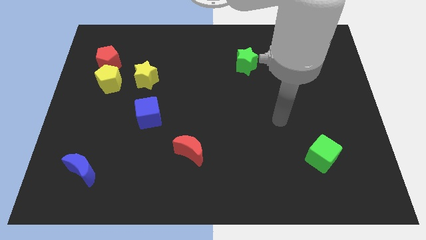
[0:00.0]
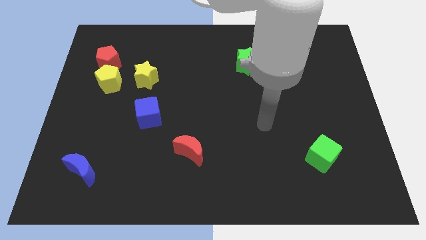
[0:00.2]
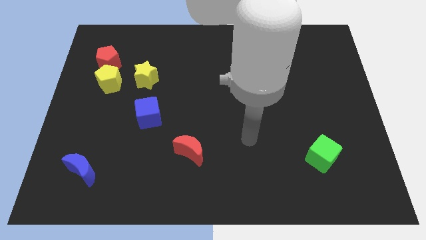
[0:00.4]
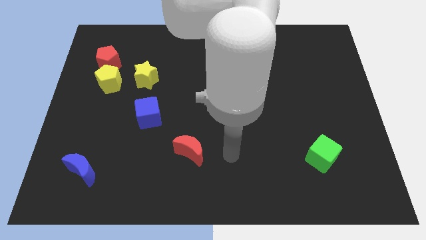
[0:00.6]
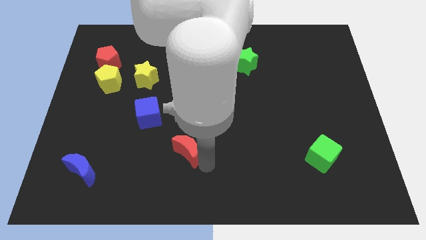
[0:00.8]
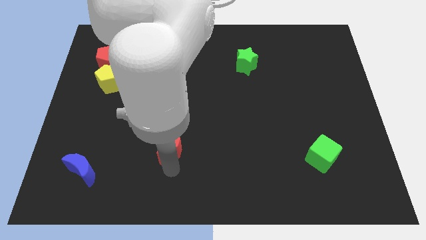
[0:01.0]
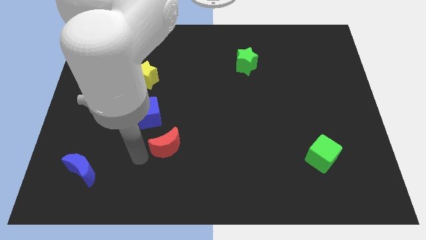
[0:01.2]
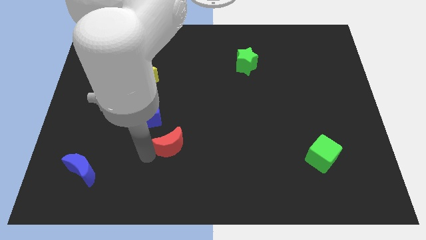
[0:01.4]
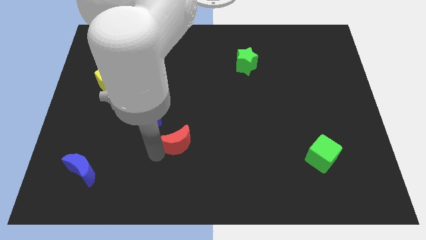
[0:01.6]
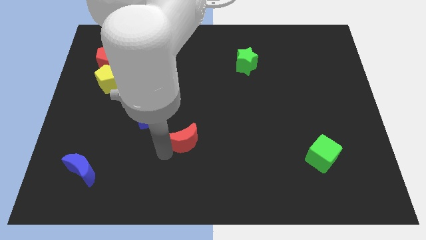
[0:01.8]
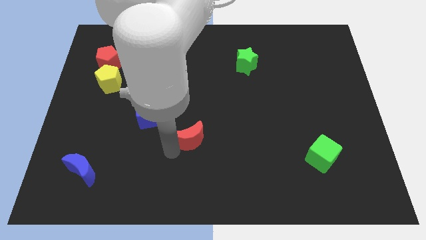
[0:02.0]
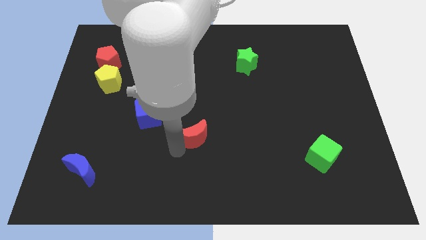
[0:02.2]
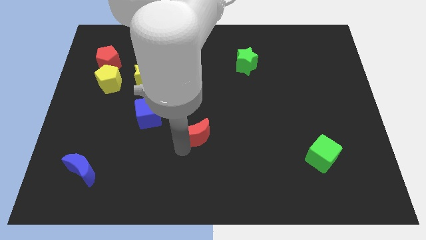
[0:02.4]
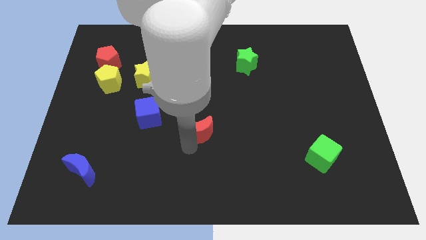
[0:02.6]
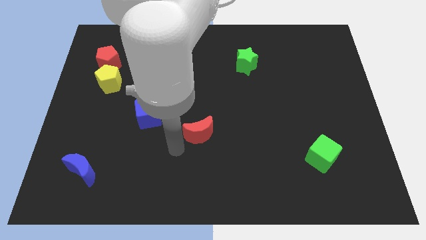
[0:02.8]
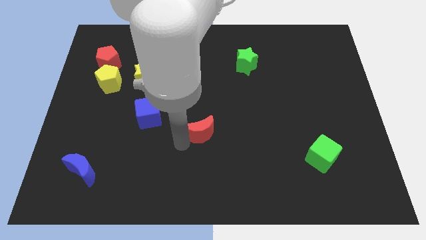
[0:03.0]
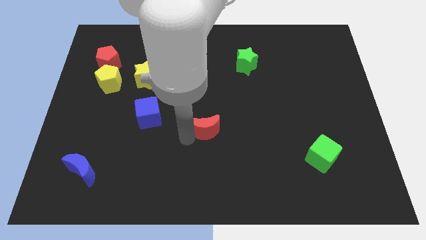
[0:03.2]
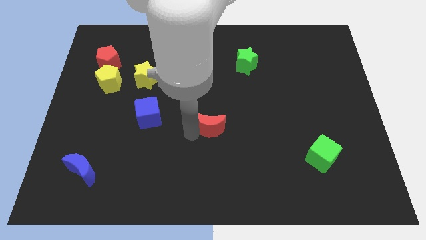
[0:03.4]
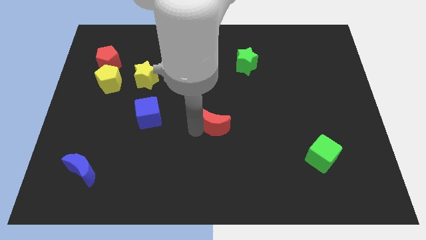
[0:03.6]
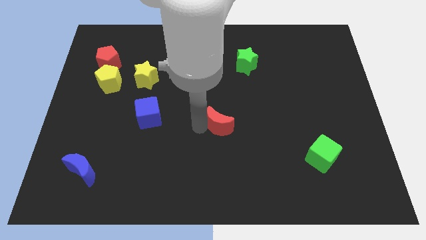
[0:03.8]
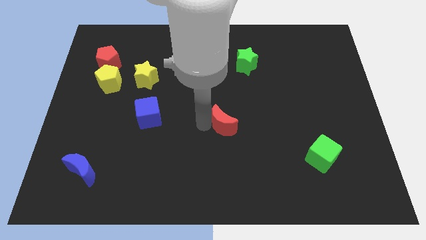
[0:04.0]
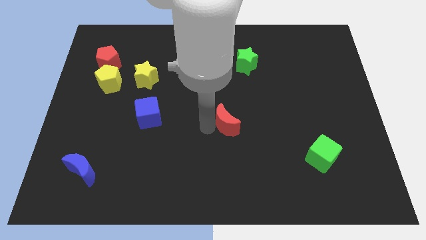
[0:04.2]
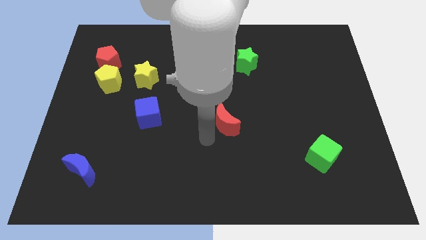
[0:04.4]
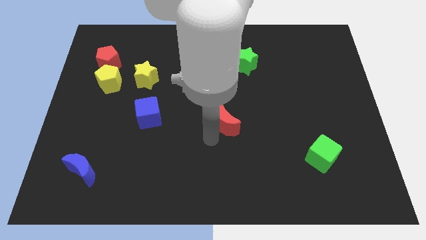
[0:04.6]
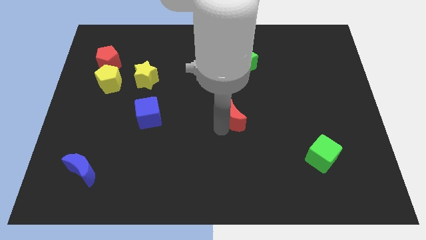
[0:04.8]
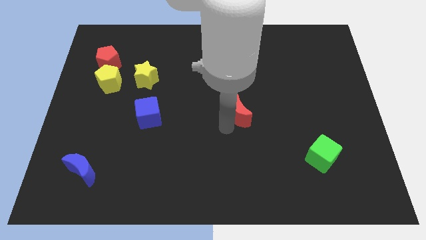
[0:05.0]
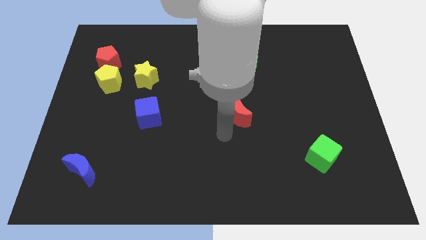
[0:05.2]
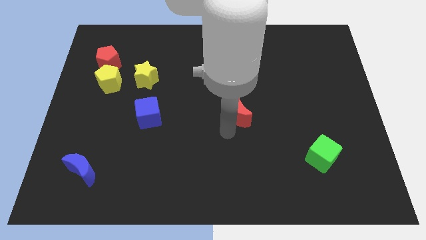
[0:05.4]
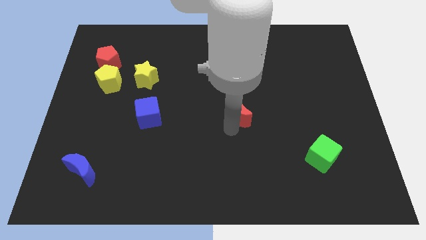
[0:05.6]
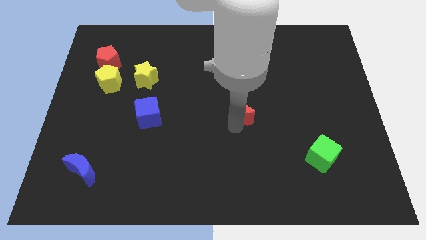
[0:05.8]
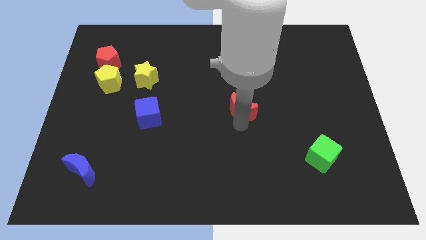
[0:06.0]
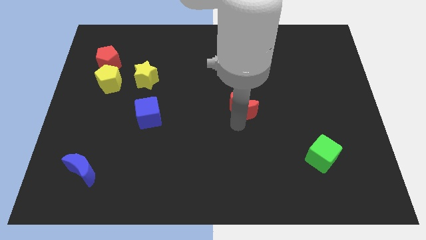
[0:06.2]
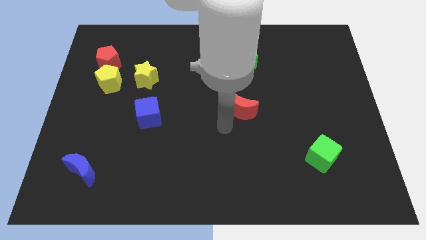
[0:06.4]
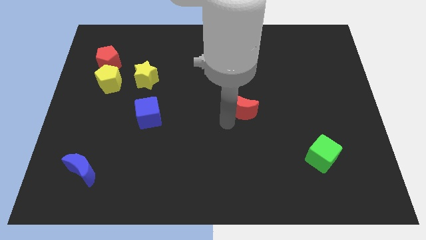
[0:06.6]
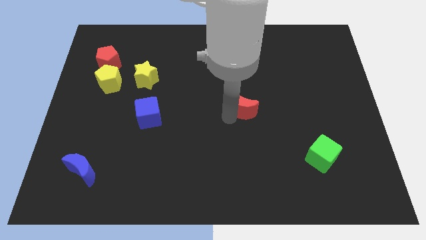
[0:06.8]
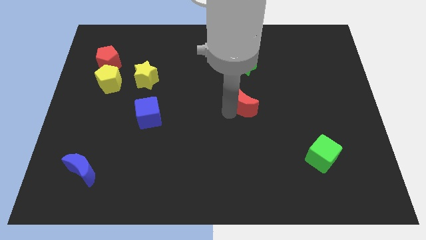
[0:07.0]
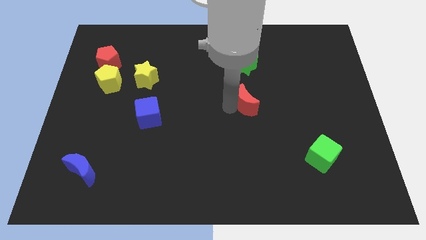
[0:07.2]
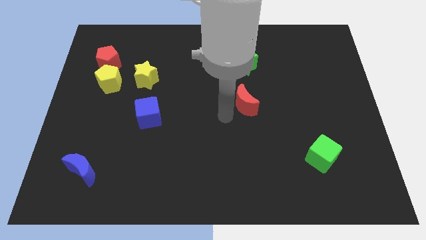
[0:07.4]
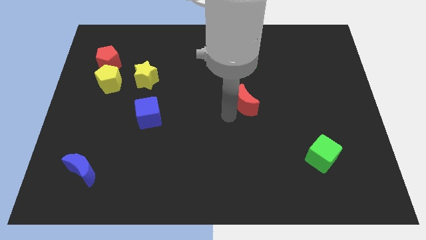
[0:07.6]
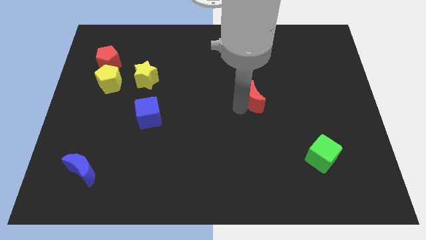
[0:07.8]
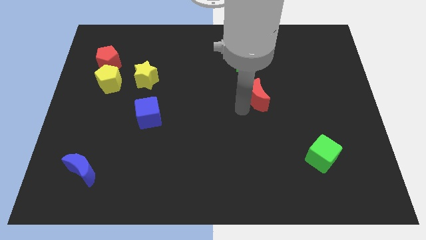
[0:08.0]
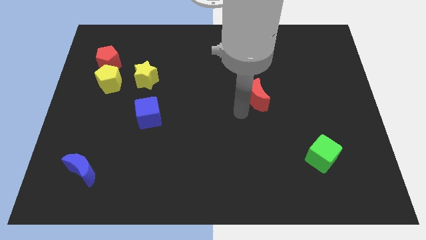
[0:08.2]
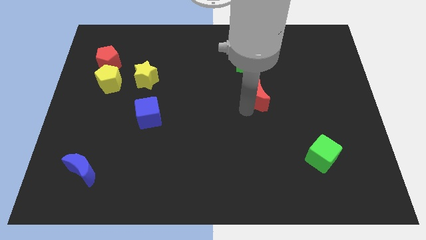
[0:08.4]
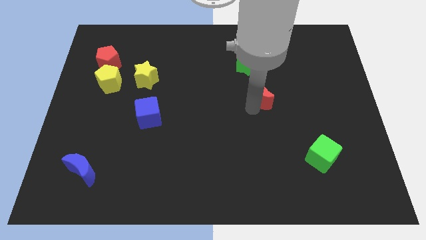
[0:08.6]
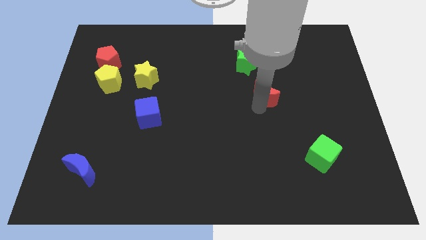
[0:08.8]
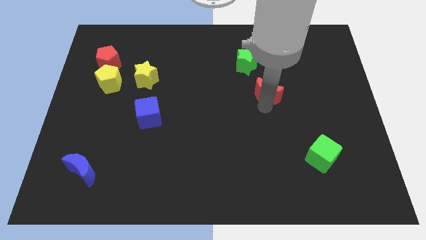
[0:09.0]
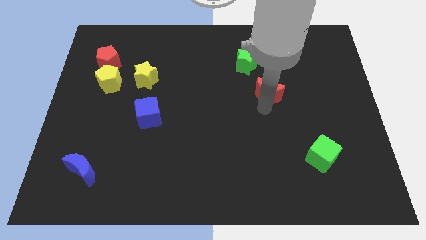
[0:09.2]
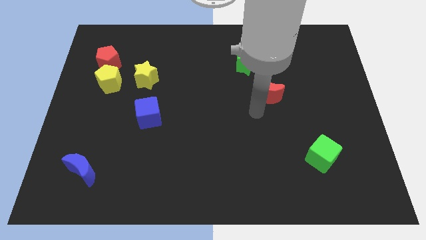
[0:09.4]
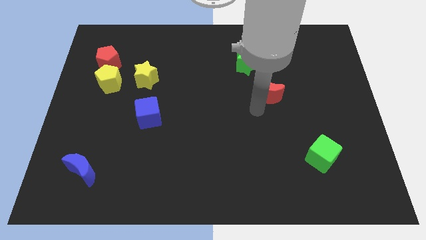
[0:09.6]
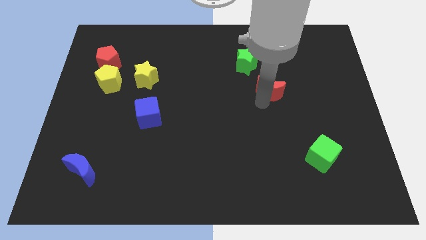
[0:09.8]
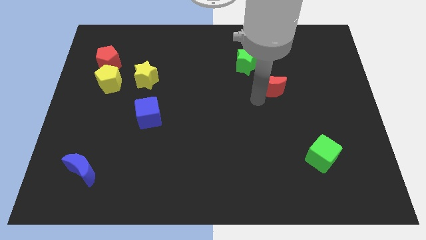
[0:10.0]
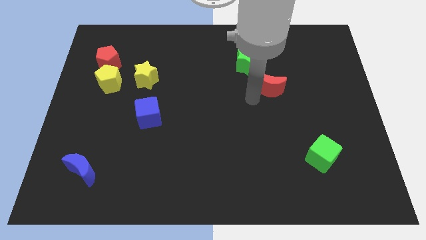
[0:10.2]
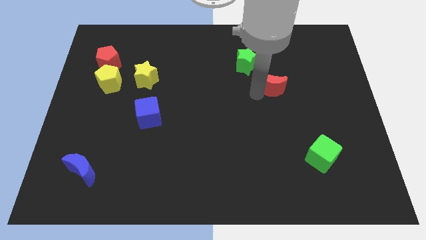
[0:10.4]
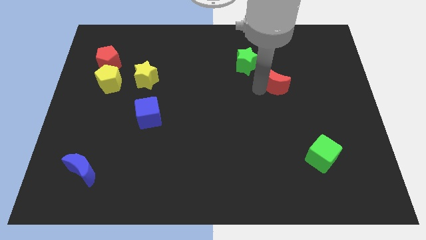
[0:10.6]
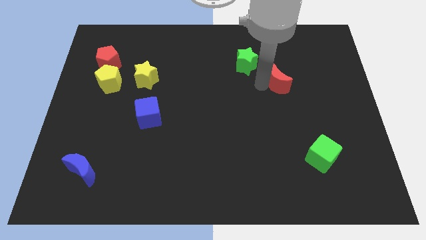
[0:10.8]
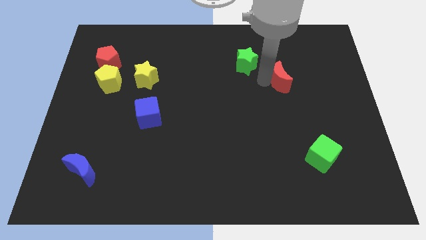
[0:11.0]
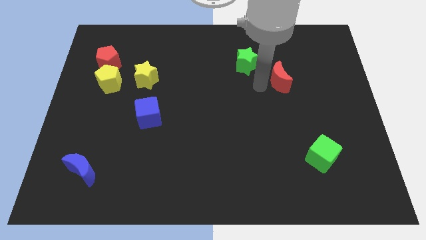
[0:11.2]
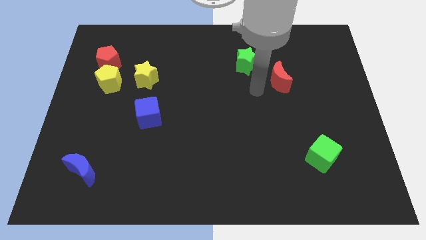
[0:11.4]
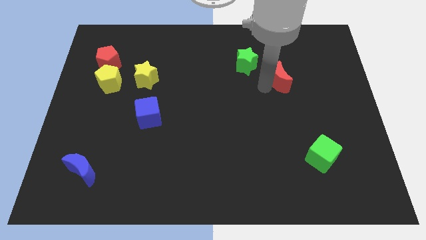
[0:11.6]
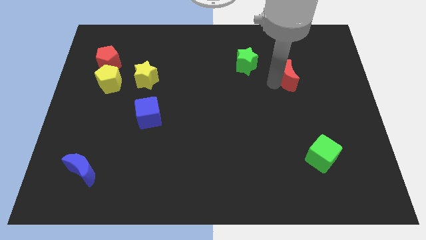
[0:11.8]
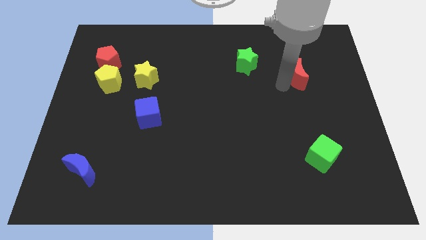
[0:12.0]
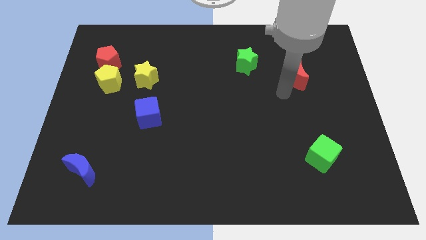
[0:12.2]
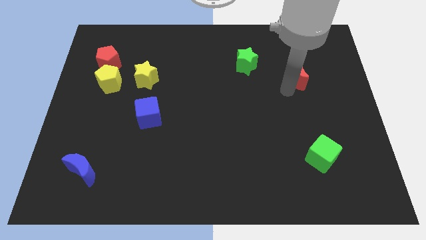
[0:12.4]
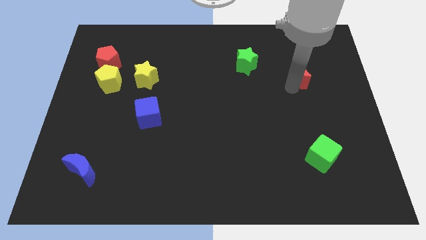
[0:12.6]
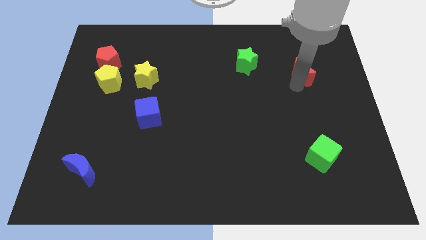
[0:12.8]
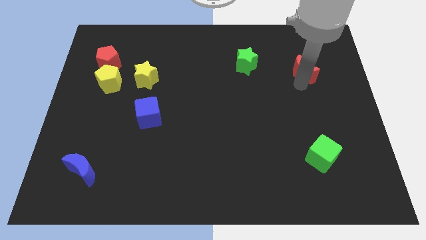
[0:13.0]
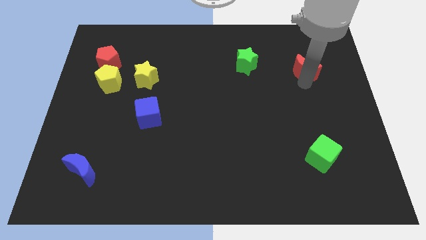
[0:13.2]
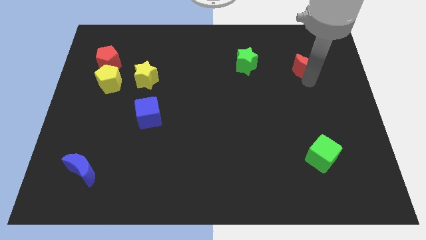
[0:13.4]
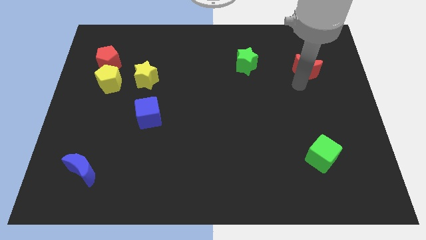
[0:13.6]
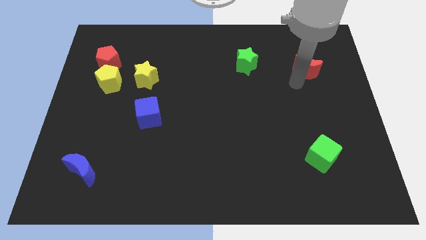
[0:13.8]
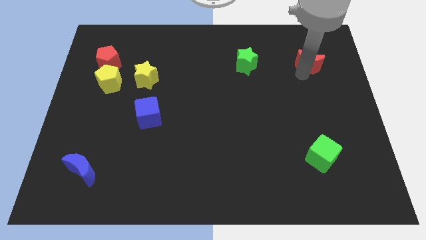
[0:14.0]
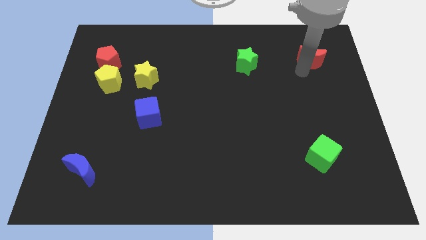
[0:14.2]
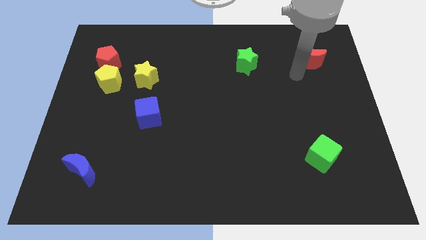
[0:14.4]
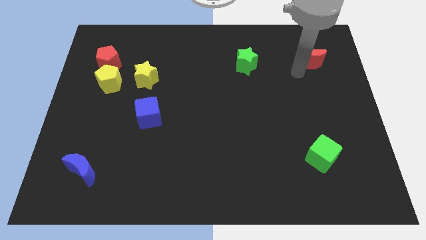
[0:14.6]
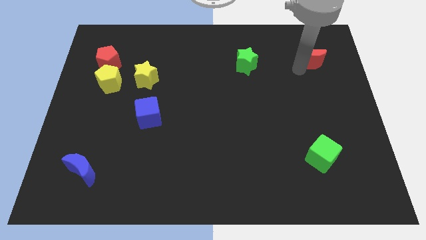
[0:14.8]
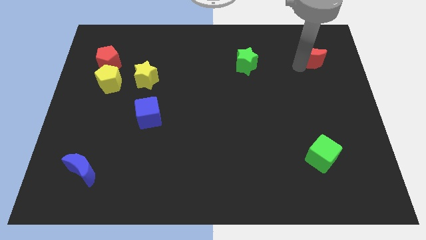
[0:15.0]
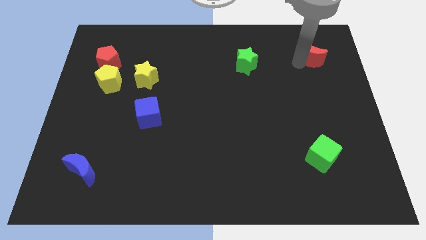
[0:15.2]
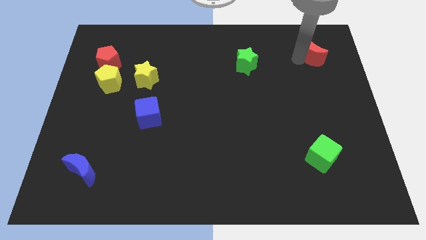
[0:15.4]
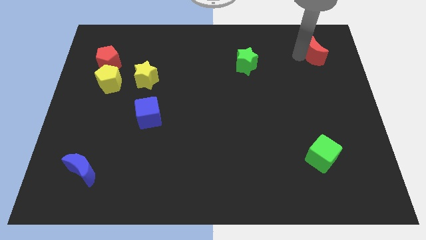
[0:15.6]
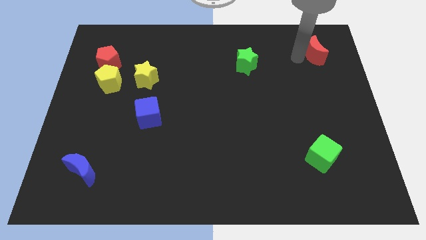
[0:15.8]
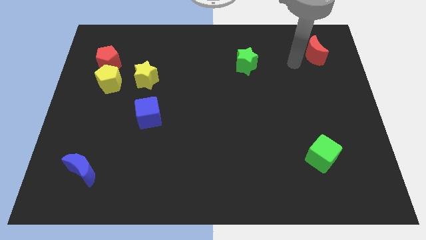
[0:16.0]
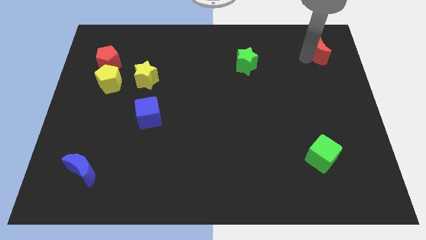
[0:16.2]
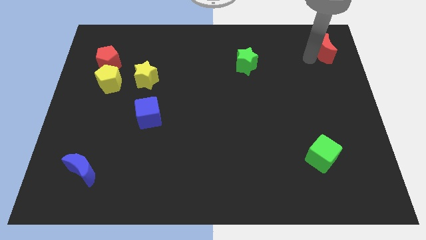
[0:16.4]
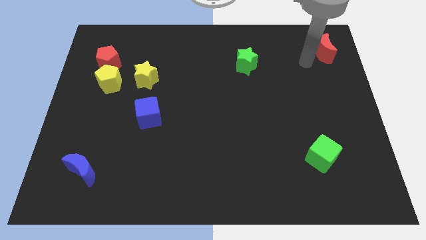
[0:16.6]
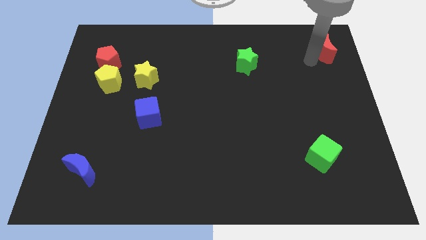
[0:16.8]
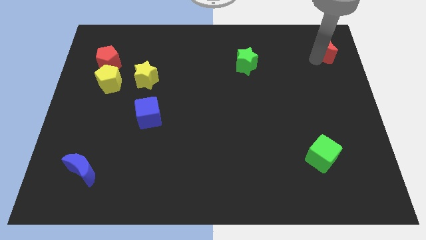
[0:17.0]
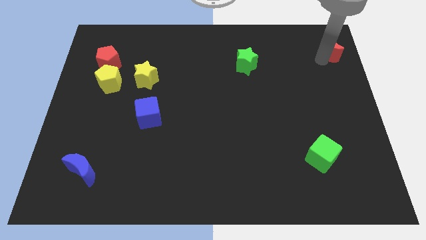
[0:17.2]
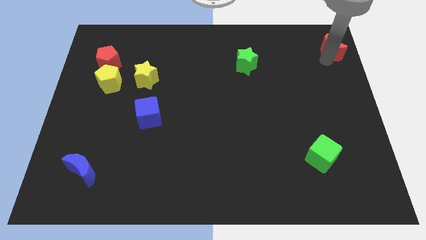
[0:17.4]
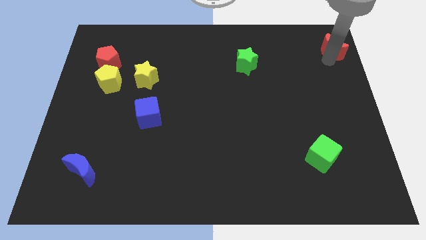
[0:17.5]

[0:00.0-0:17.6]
put the red moon to the upper right corner
